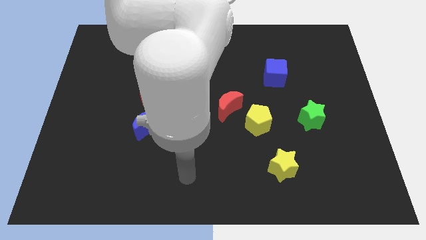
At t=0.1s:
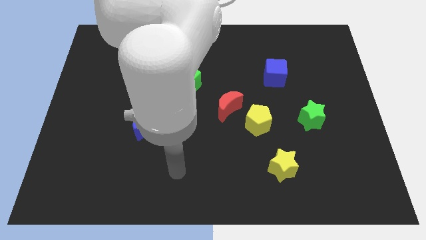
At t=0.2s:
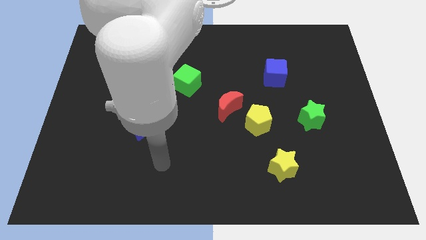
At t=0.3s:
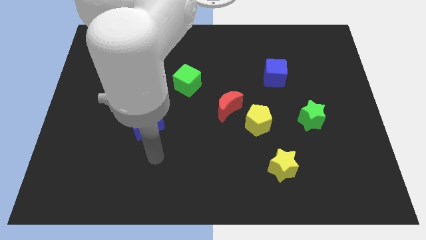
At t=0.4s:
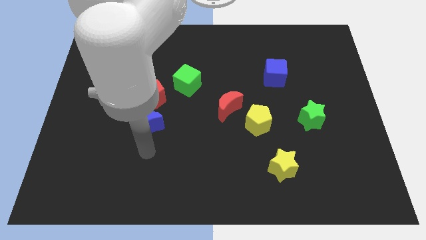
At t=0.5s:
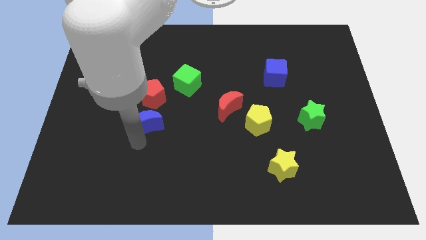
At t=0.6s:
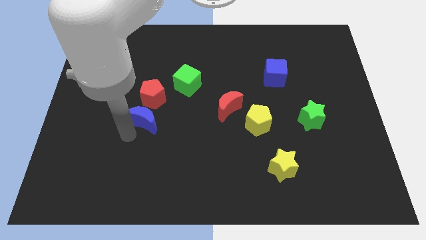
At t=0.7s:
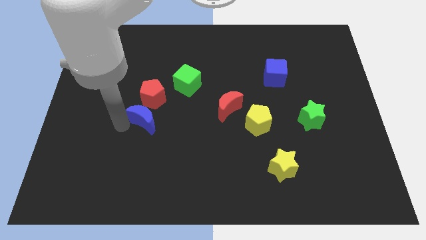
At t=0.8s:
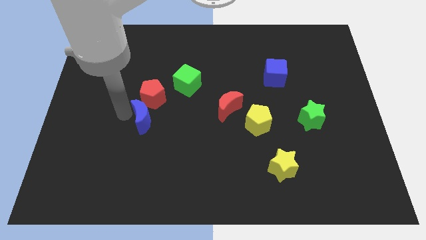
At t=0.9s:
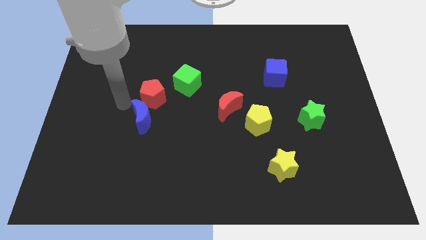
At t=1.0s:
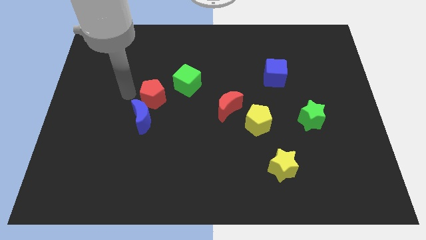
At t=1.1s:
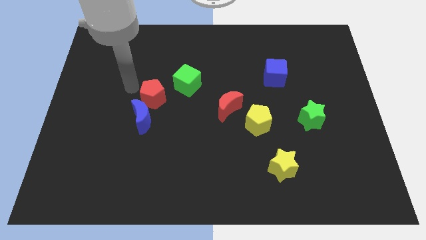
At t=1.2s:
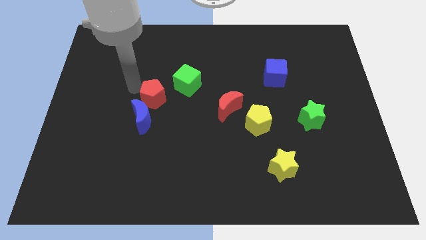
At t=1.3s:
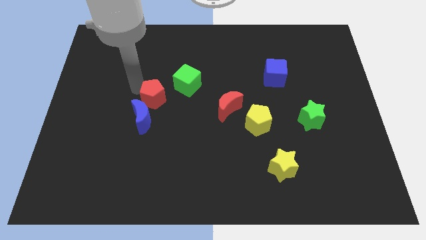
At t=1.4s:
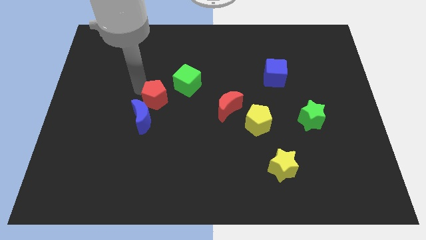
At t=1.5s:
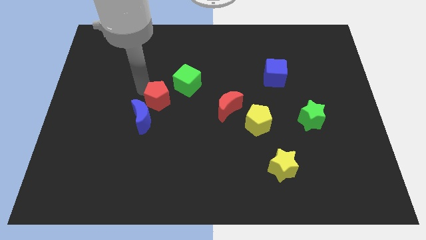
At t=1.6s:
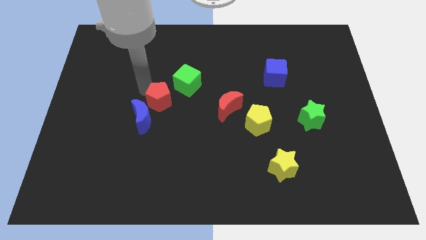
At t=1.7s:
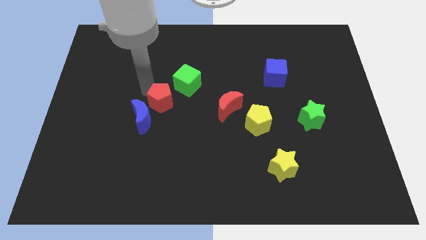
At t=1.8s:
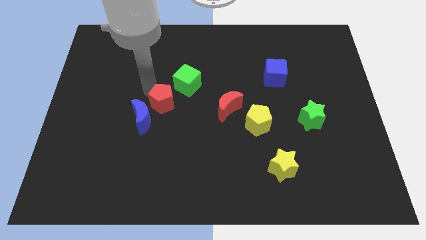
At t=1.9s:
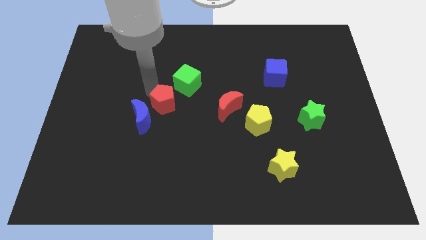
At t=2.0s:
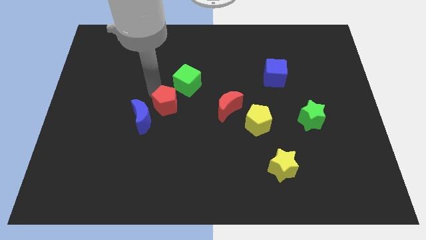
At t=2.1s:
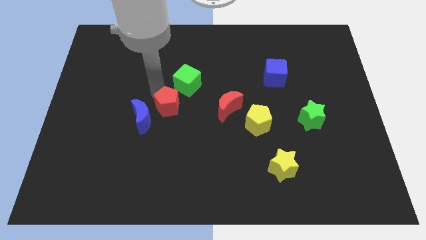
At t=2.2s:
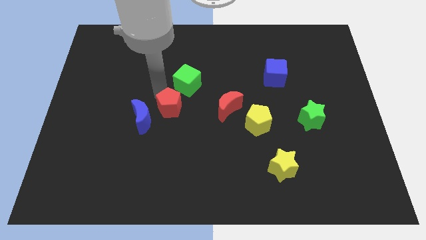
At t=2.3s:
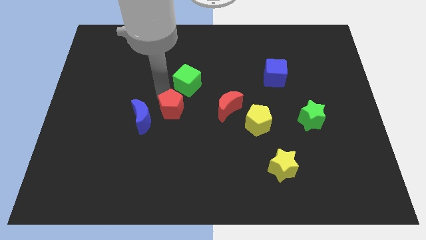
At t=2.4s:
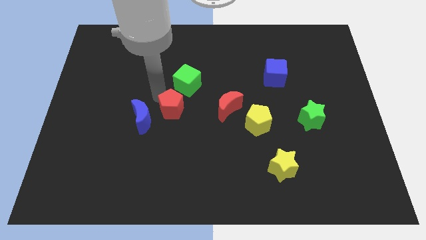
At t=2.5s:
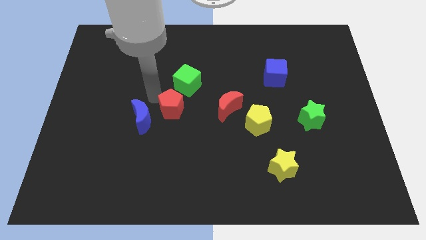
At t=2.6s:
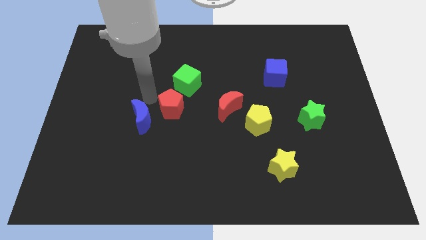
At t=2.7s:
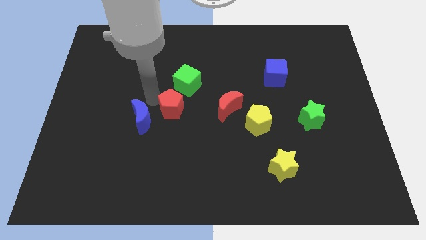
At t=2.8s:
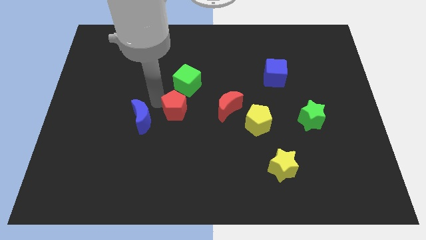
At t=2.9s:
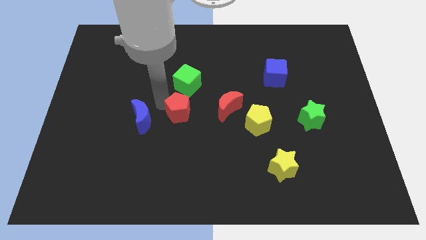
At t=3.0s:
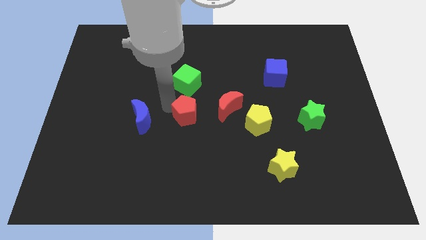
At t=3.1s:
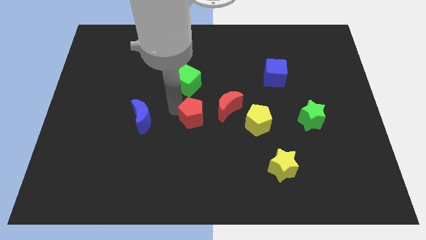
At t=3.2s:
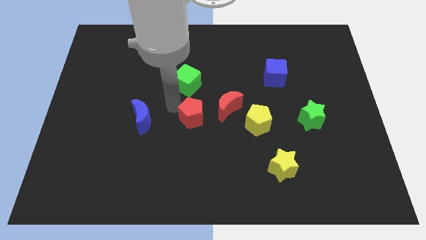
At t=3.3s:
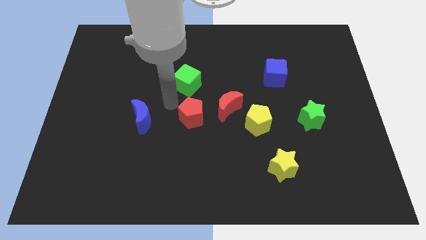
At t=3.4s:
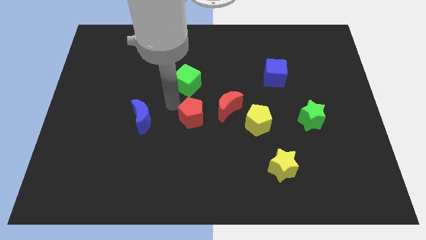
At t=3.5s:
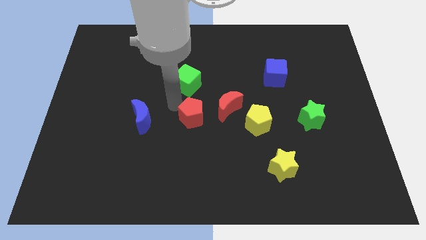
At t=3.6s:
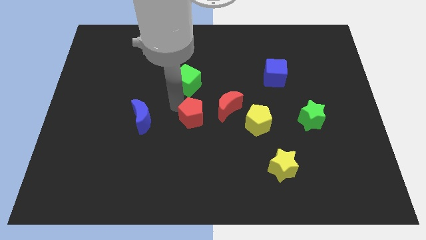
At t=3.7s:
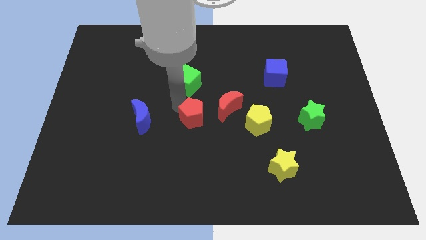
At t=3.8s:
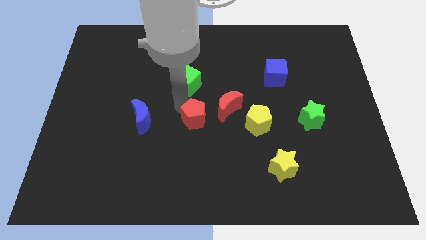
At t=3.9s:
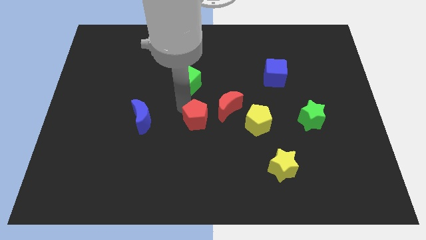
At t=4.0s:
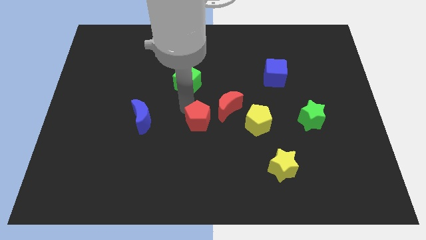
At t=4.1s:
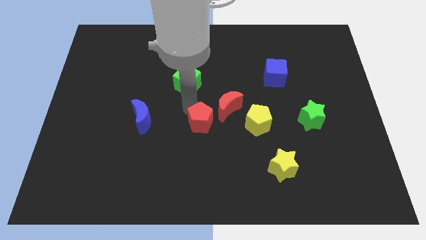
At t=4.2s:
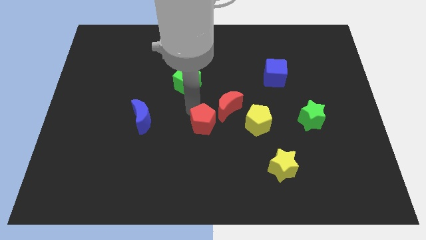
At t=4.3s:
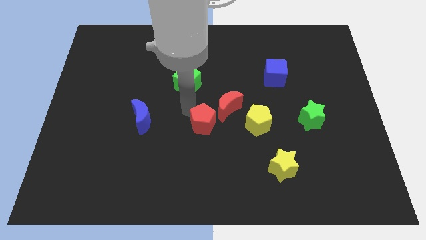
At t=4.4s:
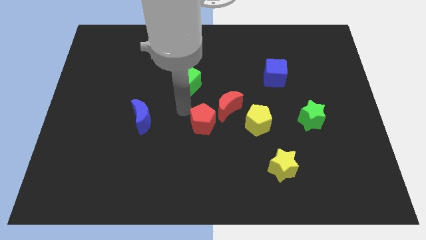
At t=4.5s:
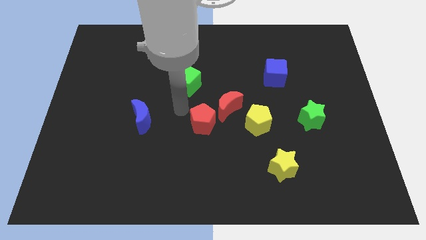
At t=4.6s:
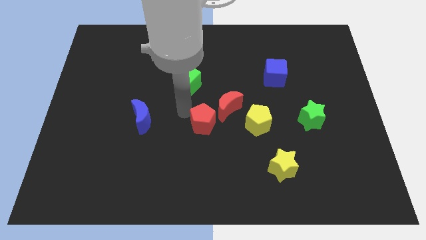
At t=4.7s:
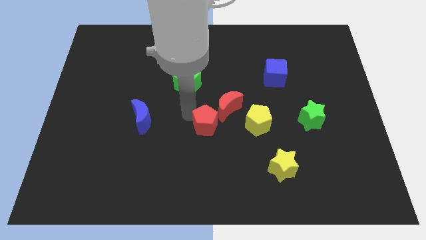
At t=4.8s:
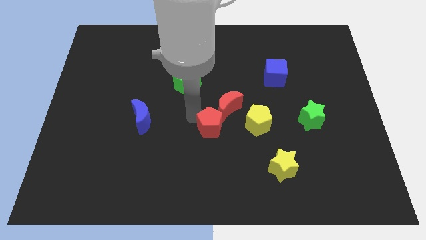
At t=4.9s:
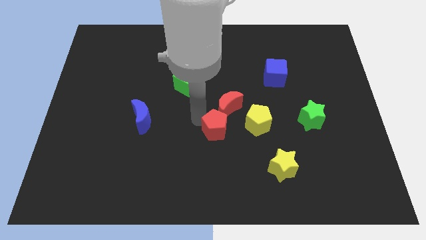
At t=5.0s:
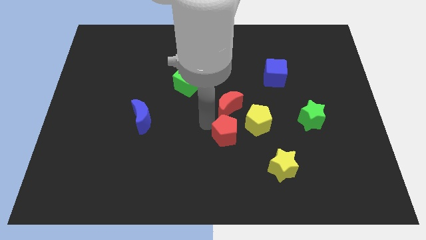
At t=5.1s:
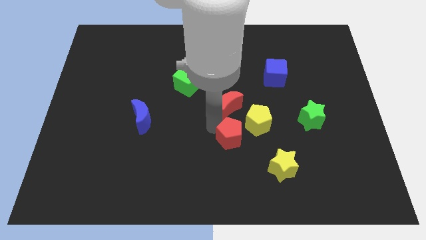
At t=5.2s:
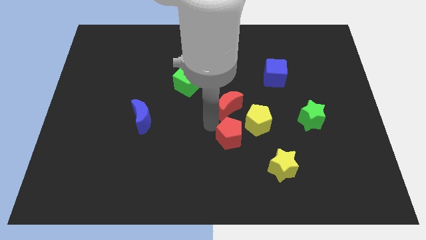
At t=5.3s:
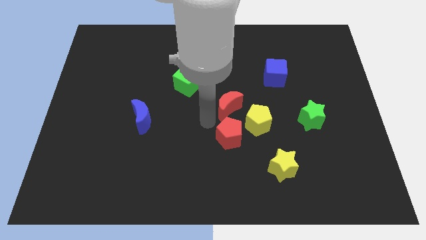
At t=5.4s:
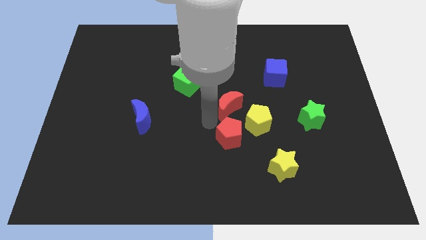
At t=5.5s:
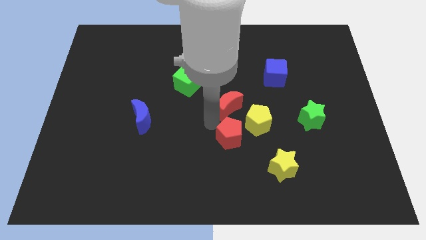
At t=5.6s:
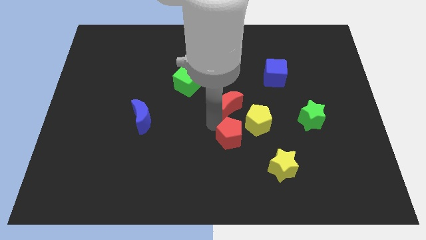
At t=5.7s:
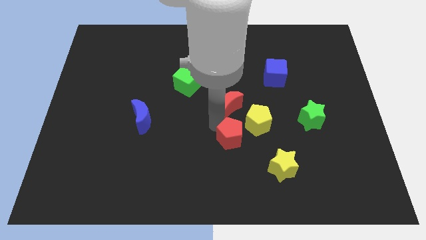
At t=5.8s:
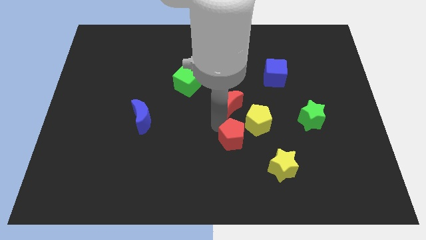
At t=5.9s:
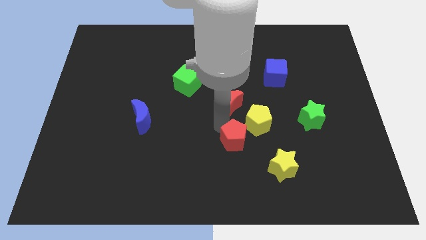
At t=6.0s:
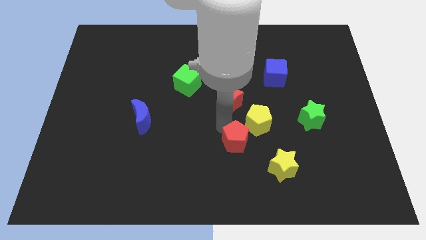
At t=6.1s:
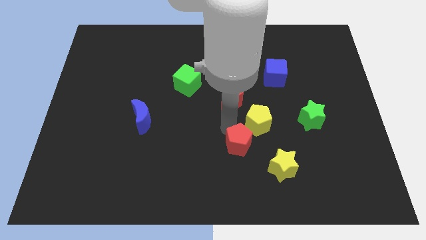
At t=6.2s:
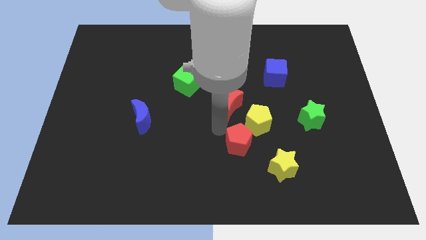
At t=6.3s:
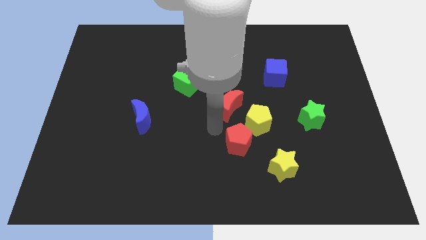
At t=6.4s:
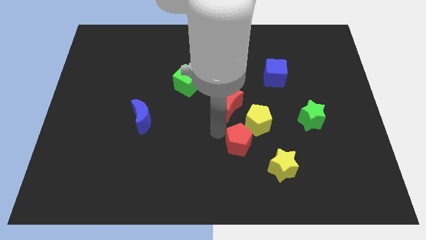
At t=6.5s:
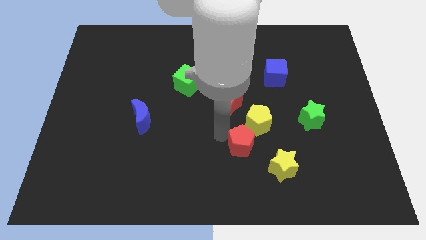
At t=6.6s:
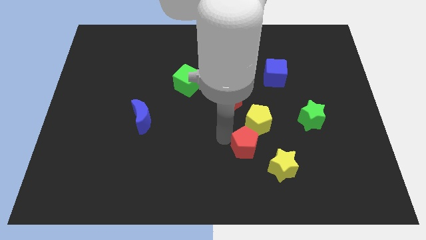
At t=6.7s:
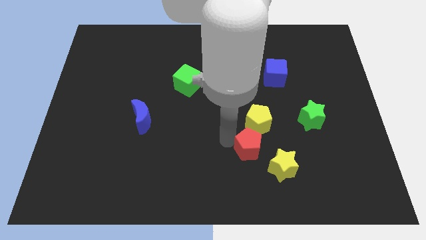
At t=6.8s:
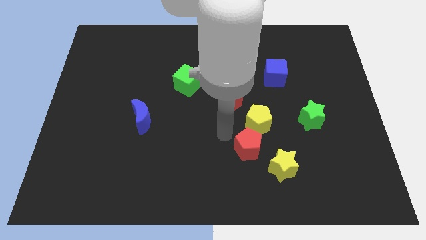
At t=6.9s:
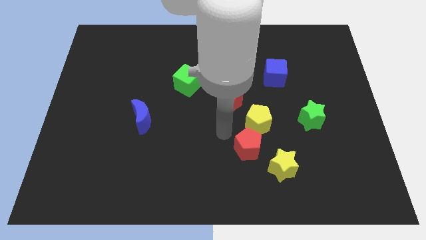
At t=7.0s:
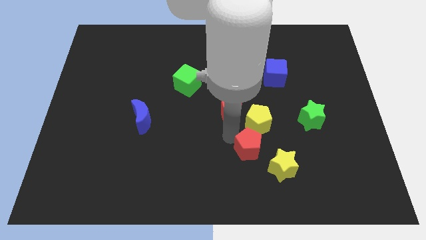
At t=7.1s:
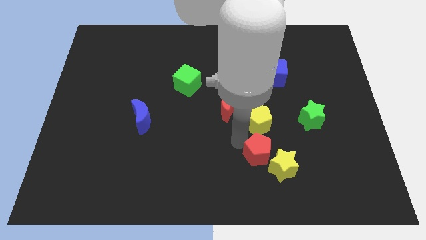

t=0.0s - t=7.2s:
slide the red pentagon next to the yellow star
